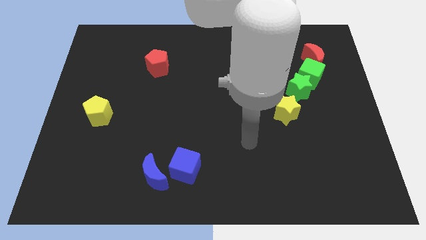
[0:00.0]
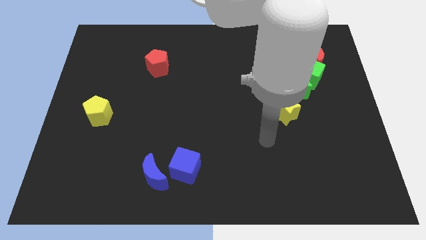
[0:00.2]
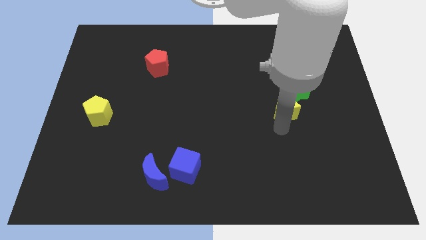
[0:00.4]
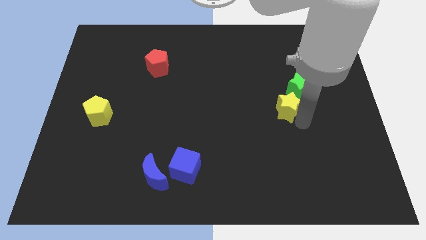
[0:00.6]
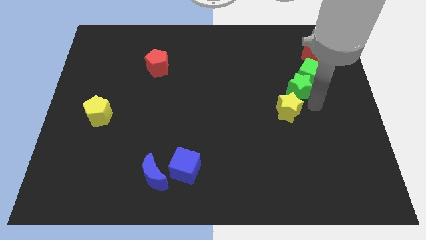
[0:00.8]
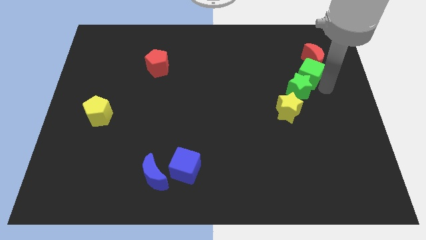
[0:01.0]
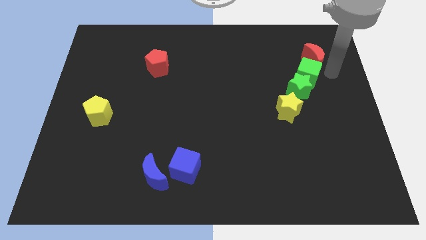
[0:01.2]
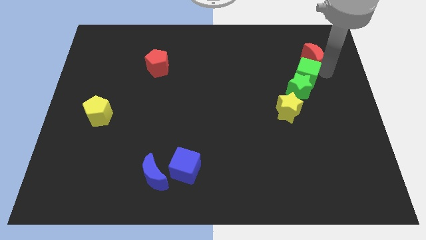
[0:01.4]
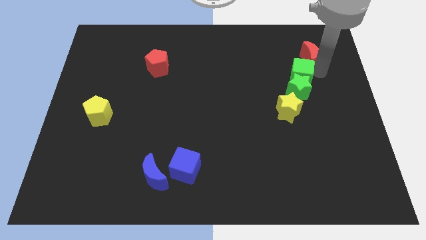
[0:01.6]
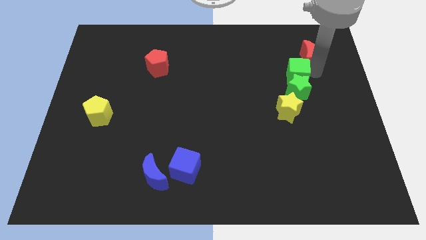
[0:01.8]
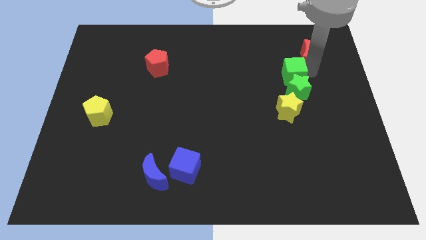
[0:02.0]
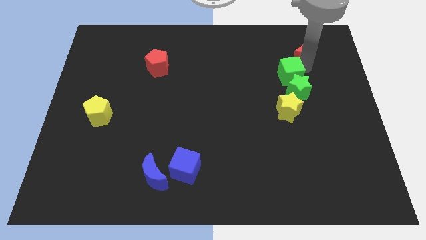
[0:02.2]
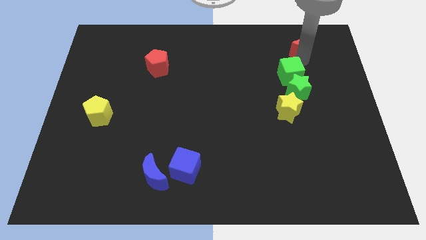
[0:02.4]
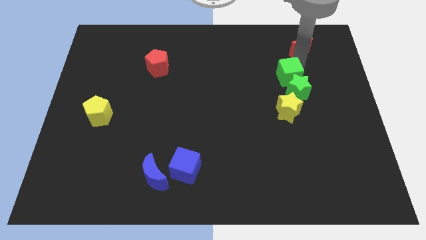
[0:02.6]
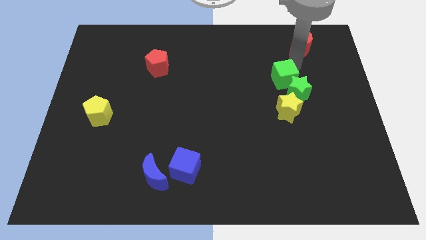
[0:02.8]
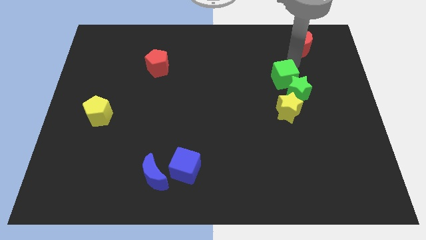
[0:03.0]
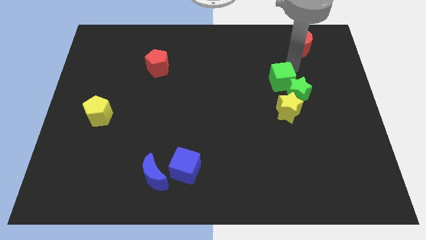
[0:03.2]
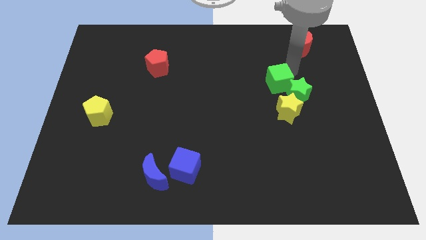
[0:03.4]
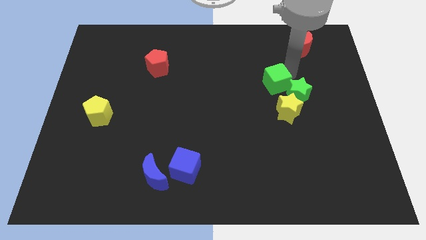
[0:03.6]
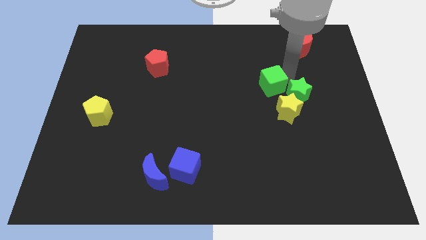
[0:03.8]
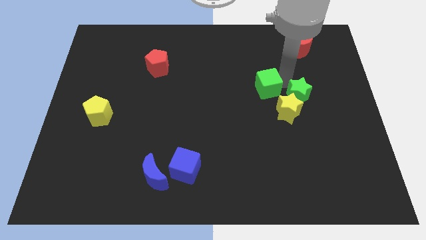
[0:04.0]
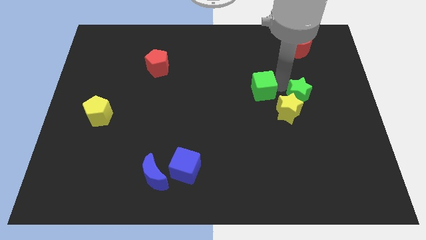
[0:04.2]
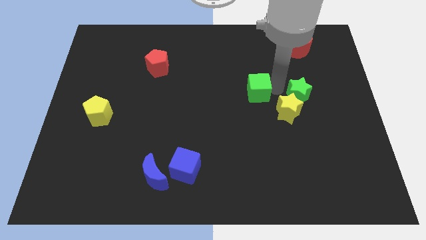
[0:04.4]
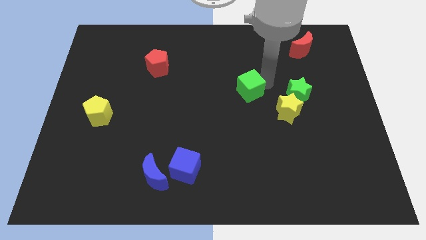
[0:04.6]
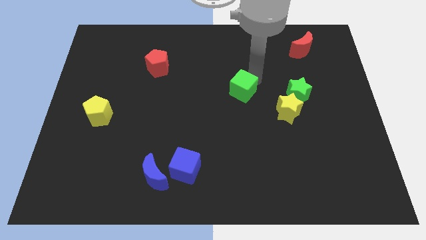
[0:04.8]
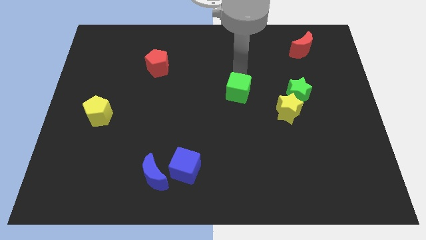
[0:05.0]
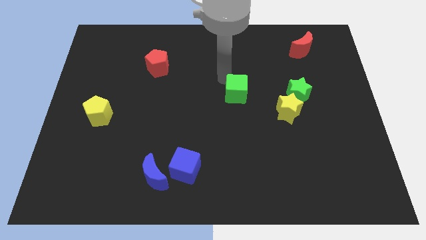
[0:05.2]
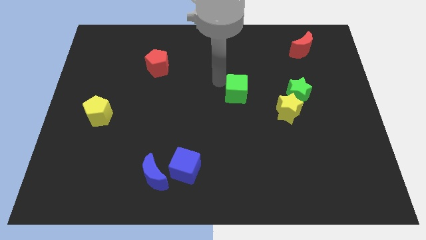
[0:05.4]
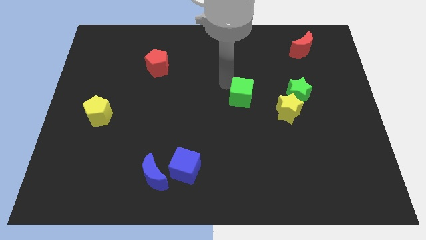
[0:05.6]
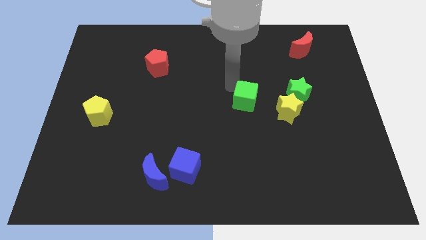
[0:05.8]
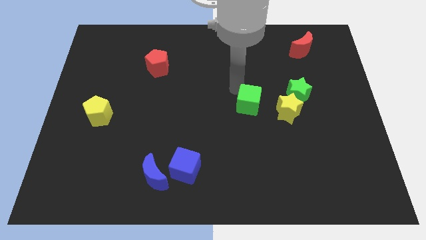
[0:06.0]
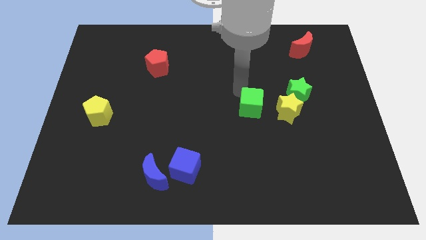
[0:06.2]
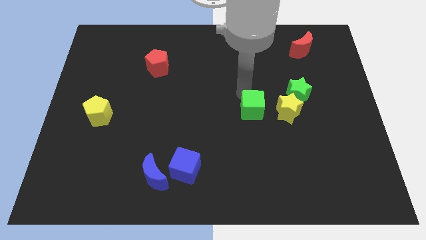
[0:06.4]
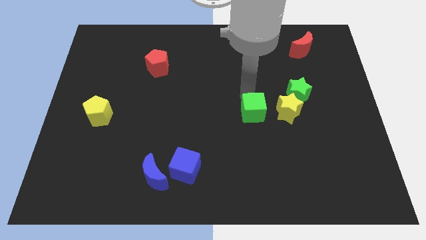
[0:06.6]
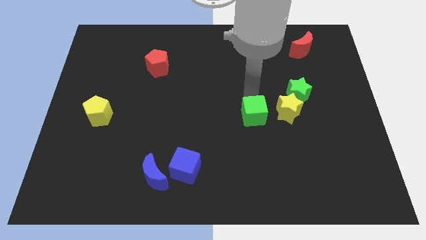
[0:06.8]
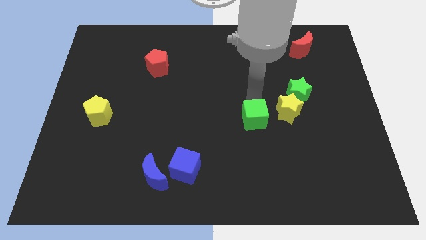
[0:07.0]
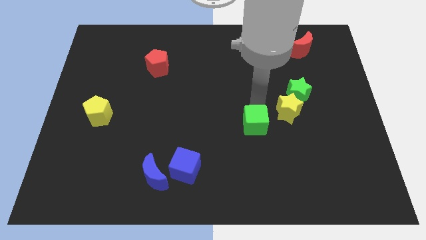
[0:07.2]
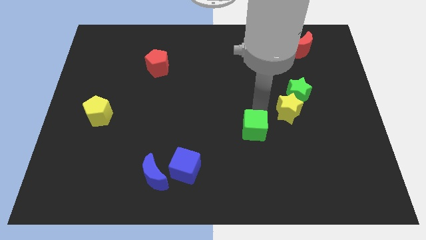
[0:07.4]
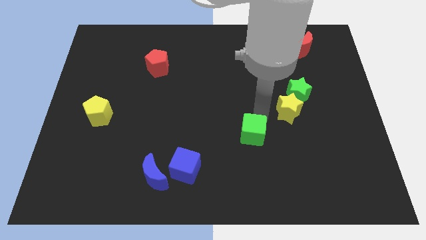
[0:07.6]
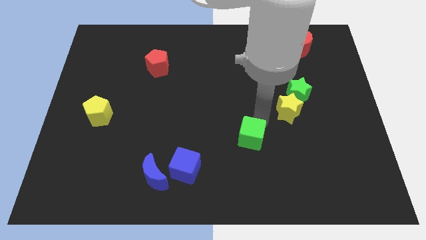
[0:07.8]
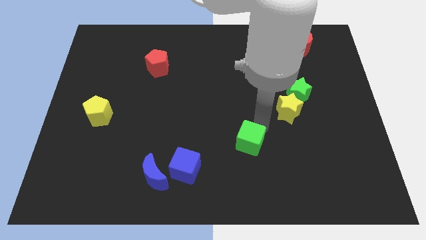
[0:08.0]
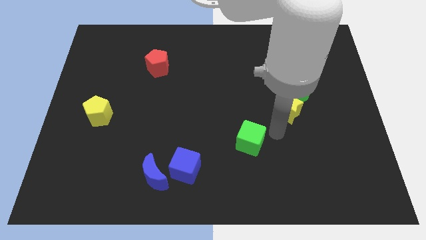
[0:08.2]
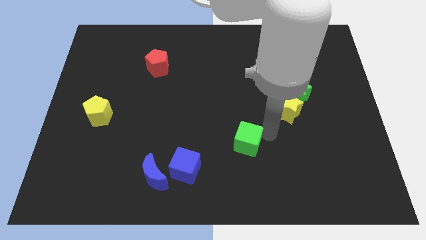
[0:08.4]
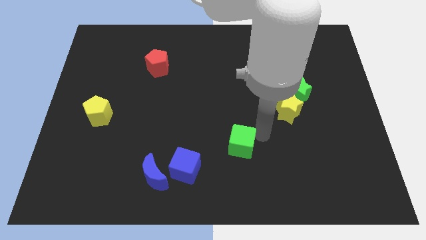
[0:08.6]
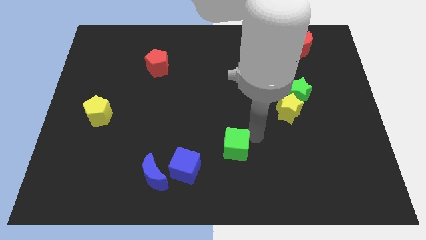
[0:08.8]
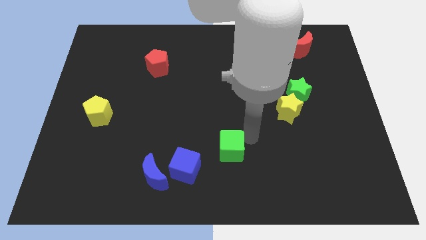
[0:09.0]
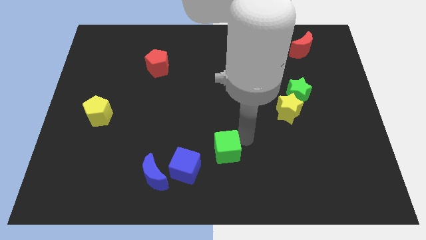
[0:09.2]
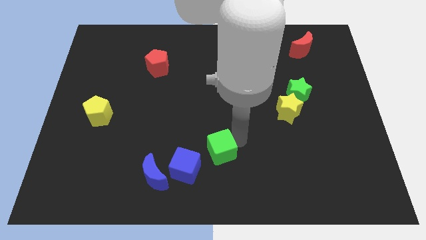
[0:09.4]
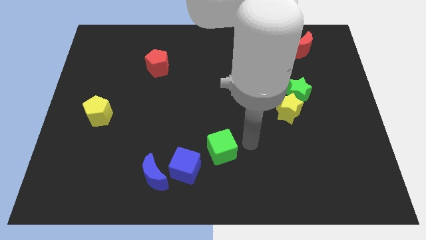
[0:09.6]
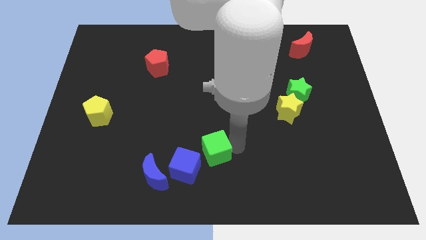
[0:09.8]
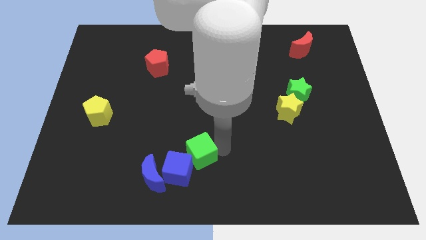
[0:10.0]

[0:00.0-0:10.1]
move the green cube towards the blue cube

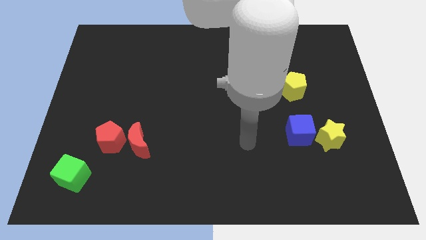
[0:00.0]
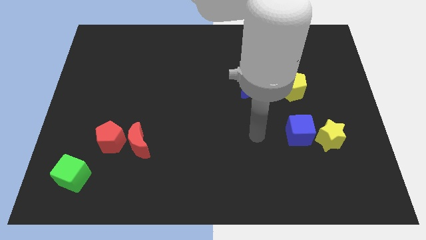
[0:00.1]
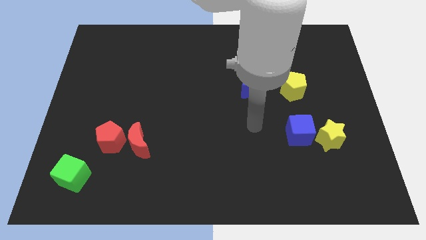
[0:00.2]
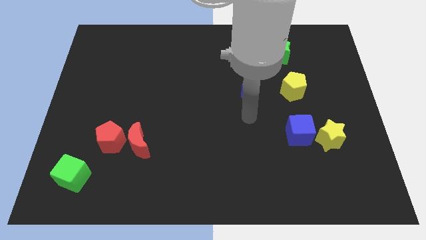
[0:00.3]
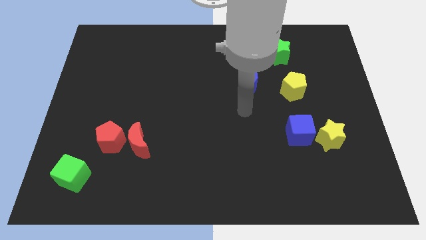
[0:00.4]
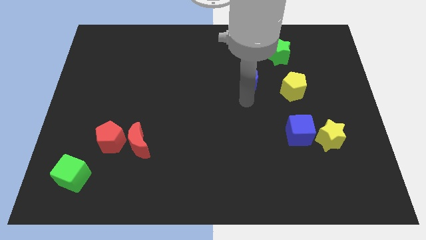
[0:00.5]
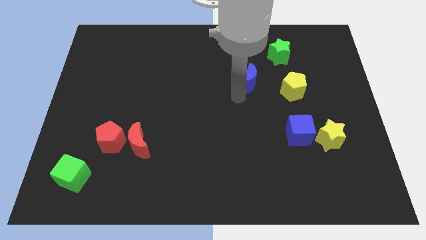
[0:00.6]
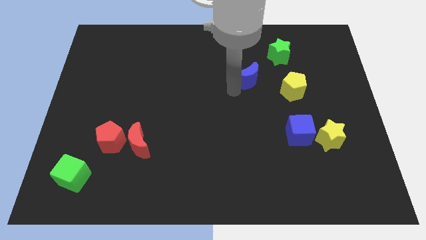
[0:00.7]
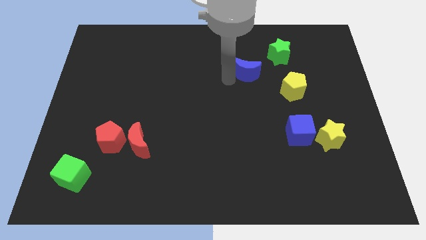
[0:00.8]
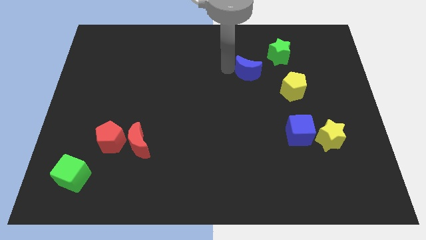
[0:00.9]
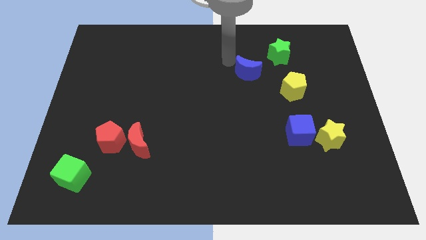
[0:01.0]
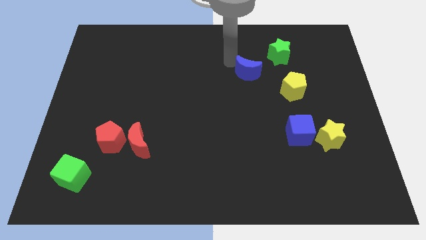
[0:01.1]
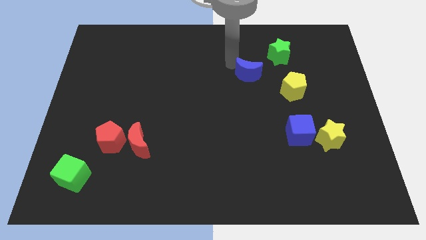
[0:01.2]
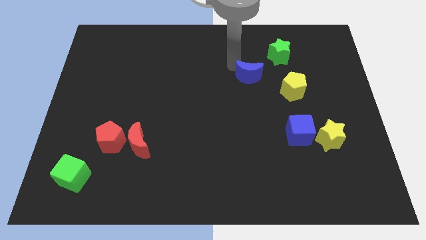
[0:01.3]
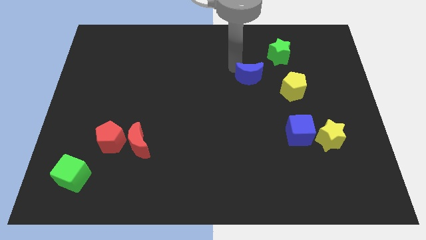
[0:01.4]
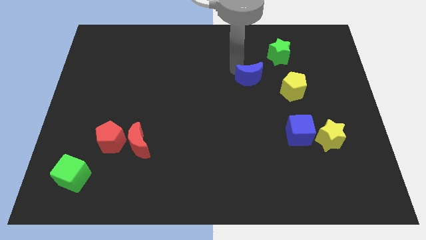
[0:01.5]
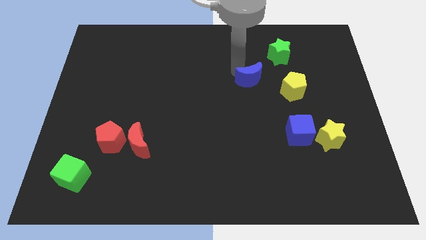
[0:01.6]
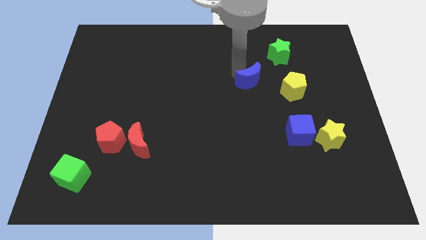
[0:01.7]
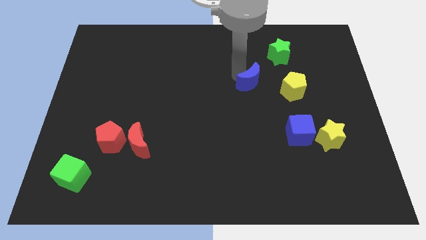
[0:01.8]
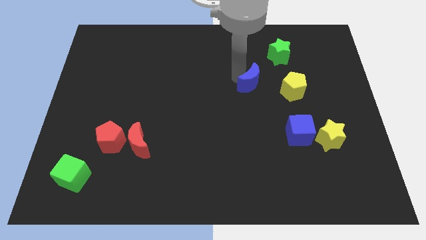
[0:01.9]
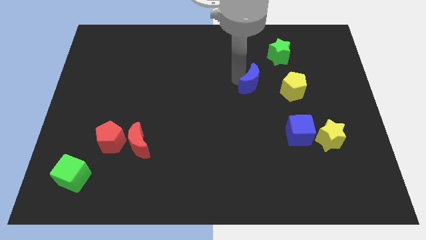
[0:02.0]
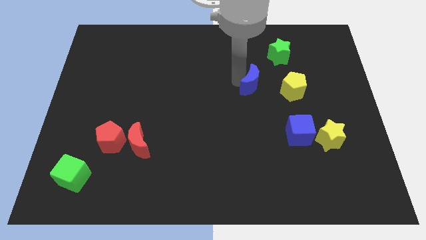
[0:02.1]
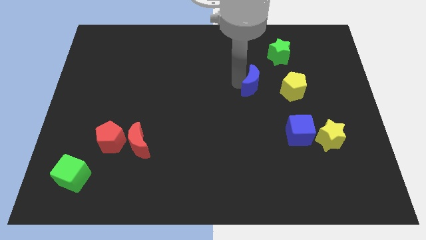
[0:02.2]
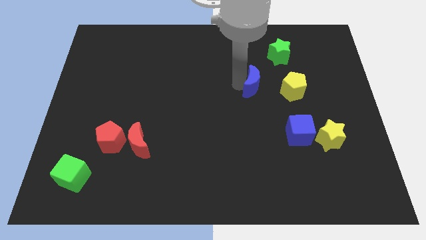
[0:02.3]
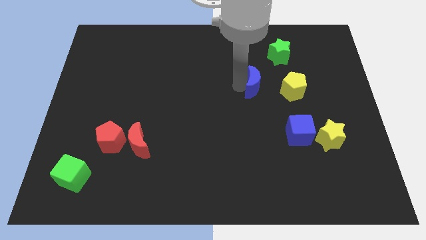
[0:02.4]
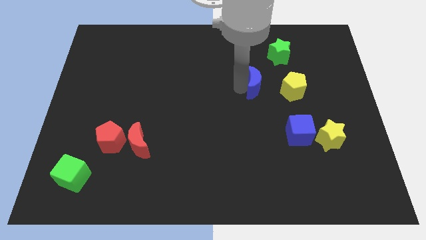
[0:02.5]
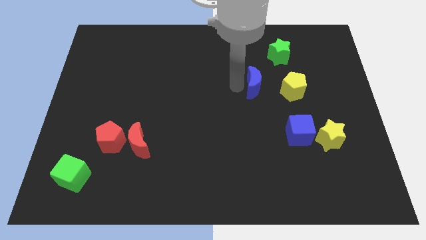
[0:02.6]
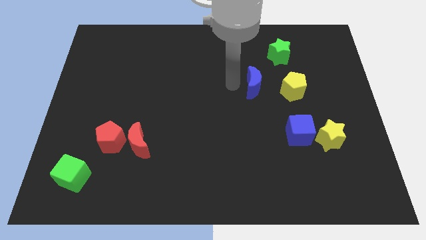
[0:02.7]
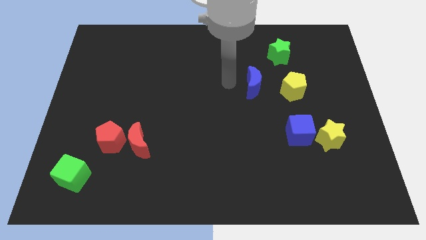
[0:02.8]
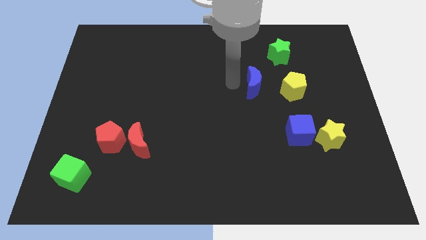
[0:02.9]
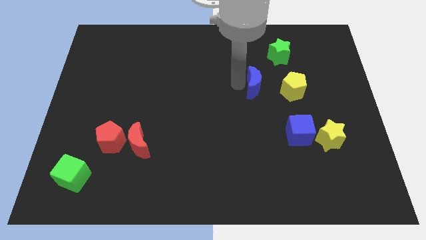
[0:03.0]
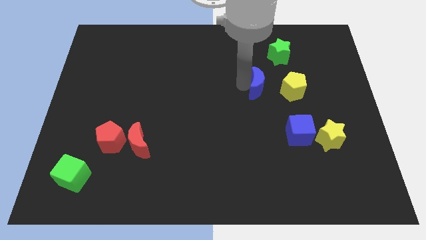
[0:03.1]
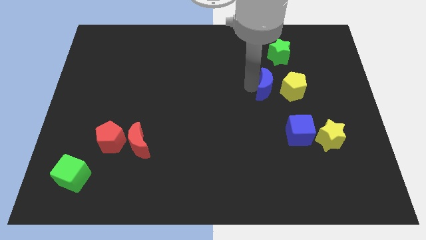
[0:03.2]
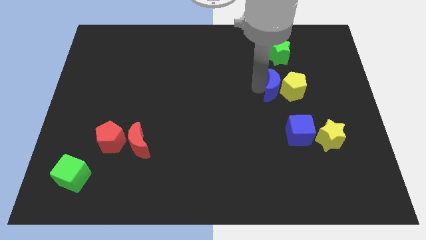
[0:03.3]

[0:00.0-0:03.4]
move the blue moon next to the yellow pentagon
